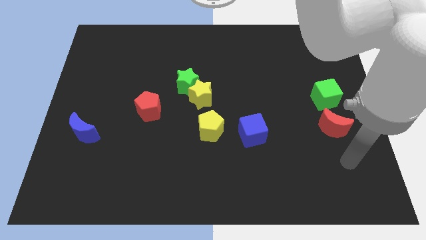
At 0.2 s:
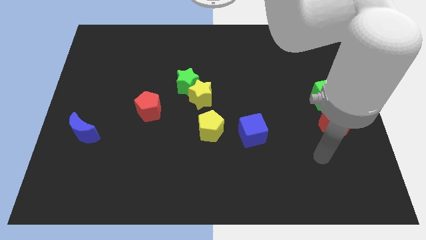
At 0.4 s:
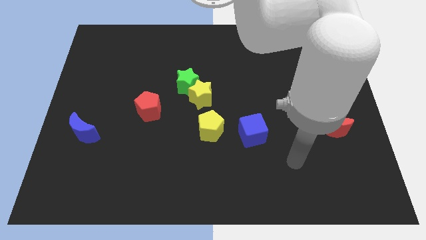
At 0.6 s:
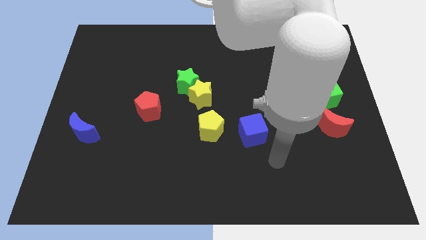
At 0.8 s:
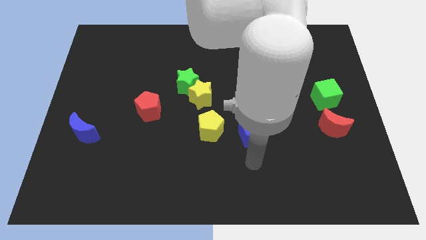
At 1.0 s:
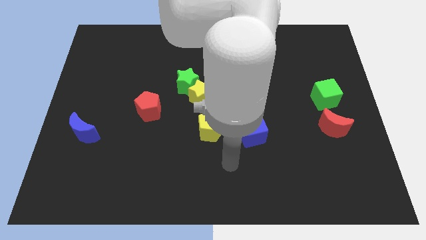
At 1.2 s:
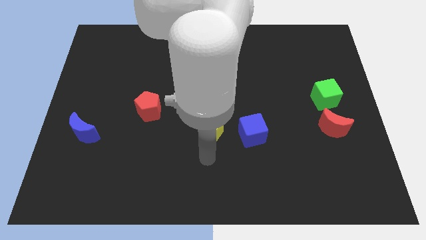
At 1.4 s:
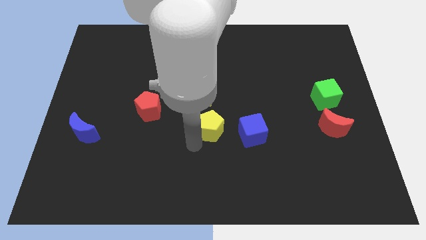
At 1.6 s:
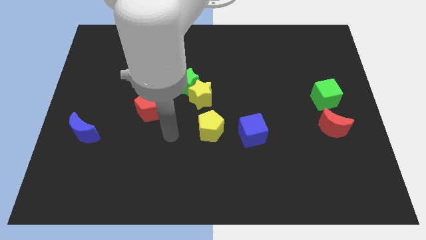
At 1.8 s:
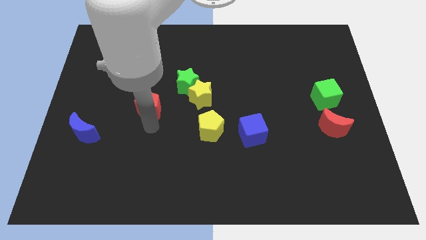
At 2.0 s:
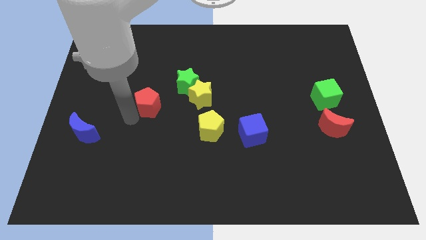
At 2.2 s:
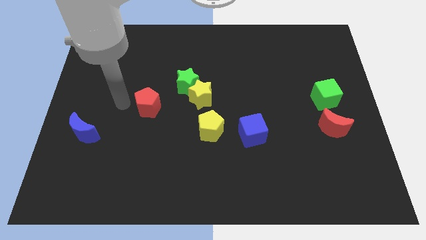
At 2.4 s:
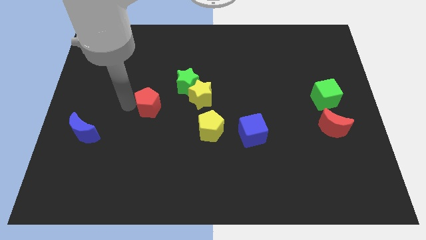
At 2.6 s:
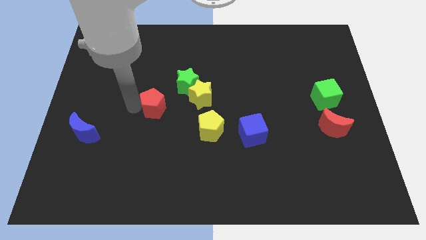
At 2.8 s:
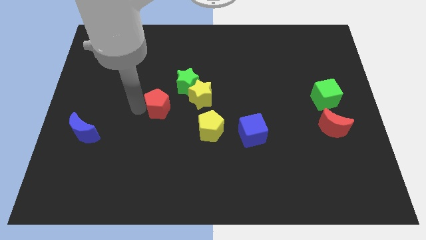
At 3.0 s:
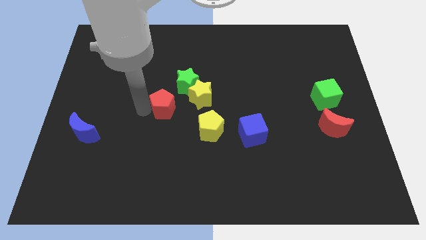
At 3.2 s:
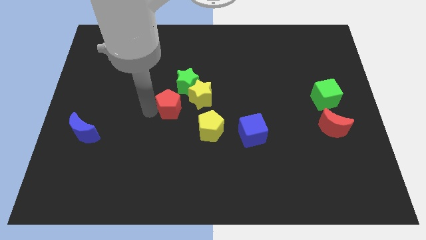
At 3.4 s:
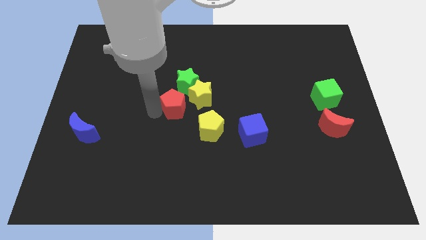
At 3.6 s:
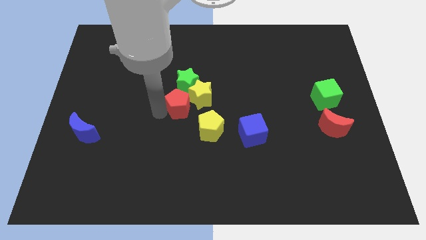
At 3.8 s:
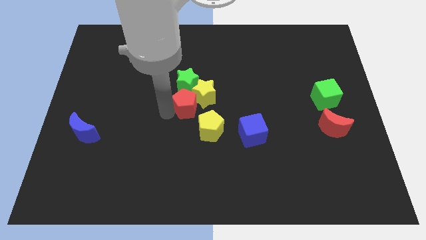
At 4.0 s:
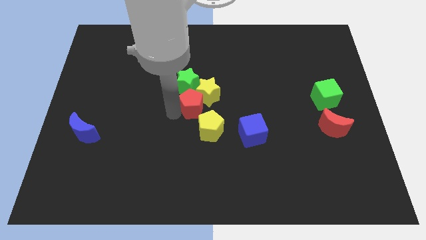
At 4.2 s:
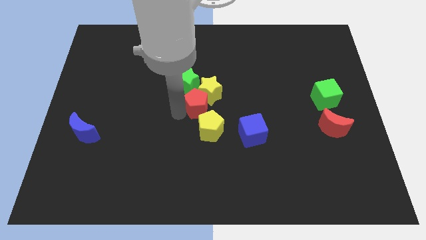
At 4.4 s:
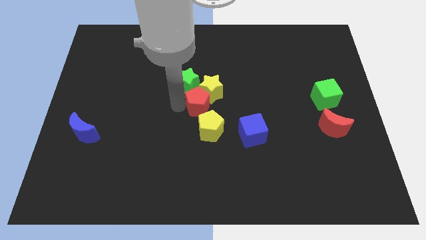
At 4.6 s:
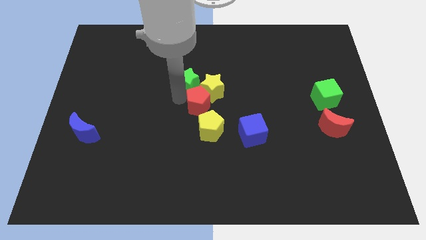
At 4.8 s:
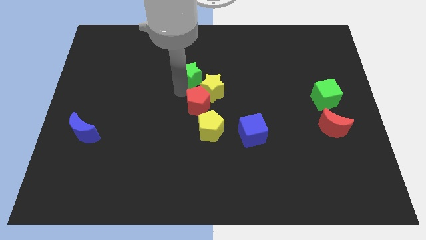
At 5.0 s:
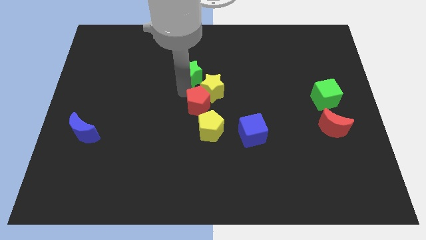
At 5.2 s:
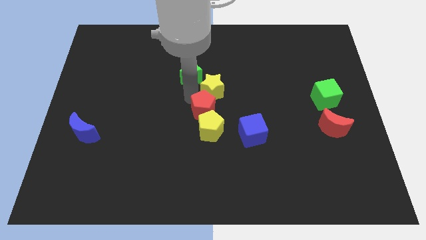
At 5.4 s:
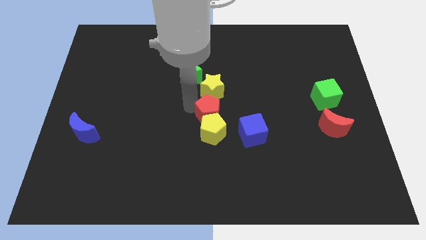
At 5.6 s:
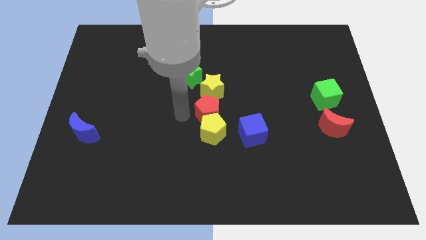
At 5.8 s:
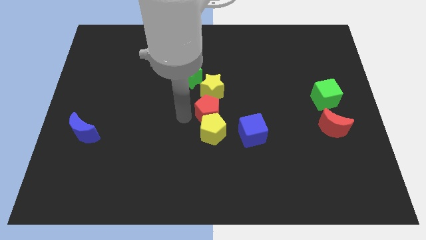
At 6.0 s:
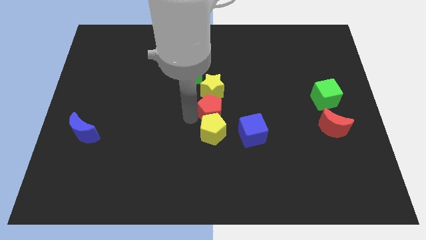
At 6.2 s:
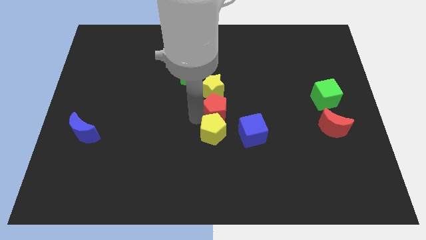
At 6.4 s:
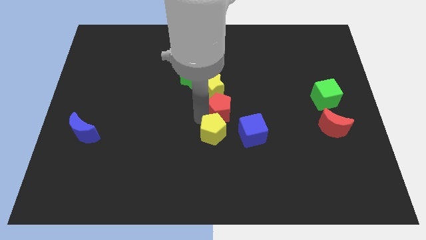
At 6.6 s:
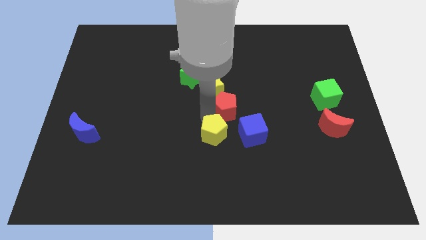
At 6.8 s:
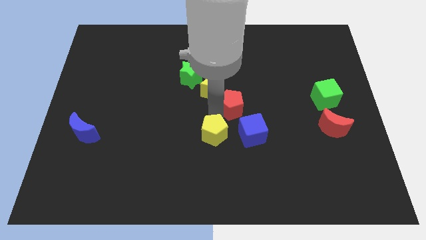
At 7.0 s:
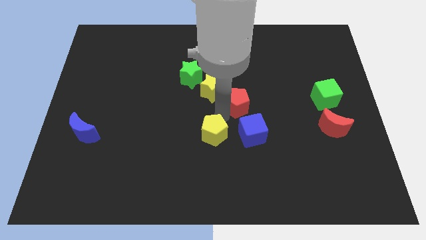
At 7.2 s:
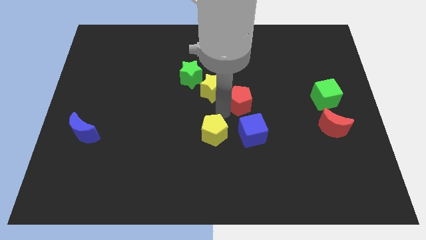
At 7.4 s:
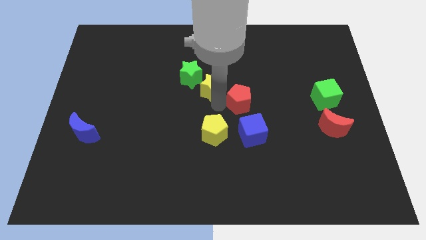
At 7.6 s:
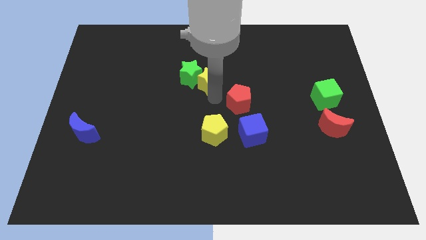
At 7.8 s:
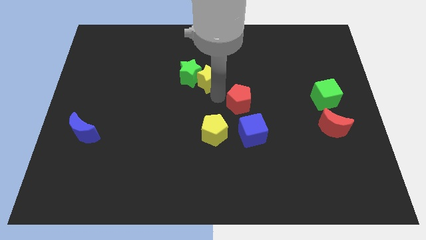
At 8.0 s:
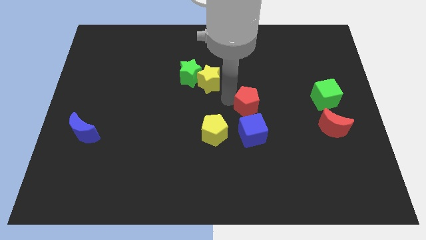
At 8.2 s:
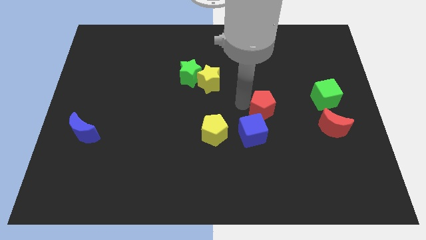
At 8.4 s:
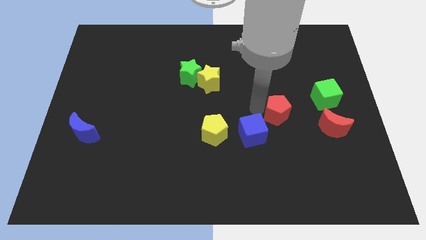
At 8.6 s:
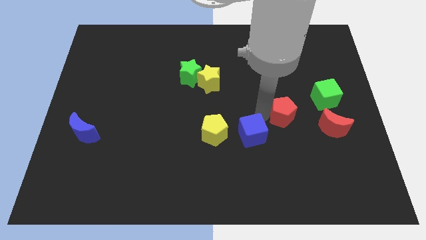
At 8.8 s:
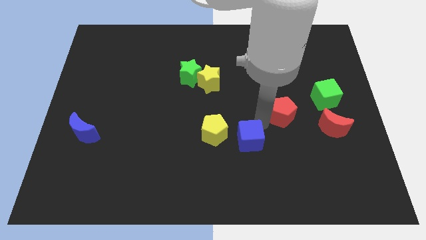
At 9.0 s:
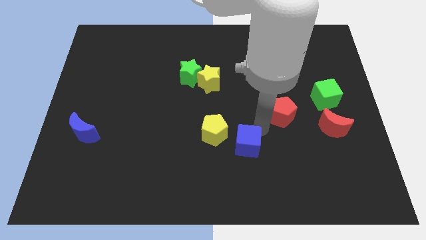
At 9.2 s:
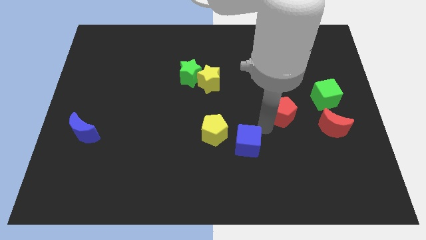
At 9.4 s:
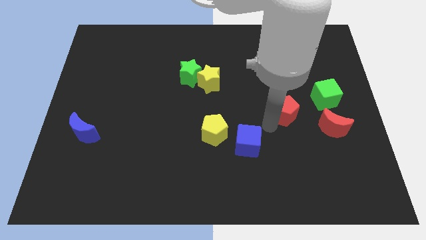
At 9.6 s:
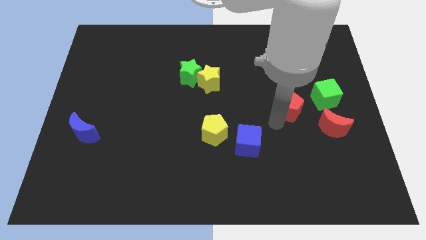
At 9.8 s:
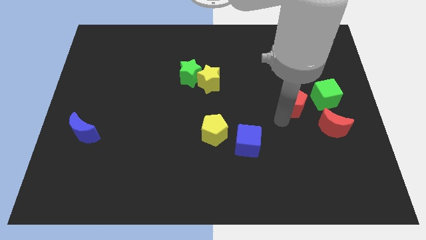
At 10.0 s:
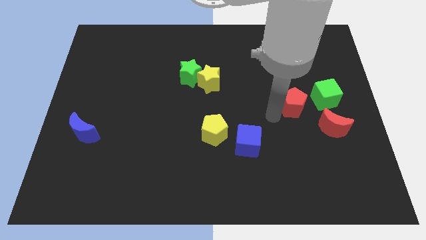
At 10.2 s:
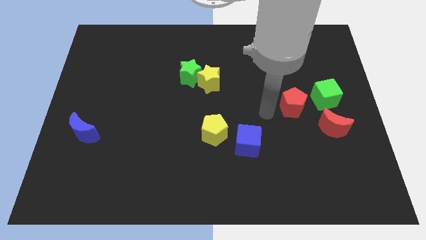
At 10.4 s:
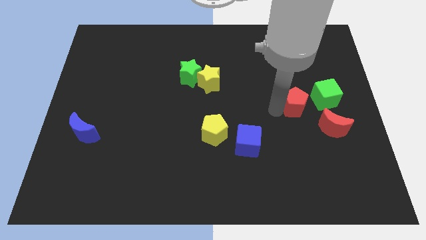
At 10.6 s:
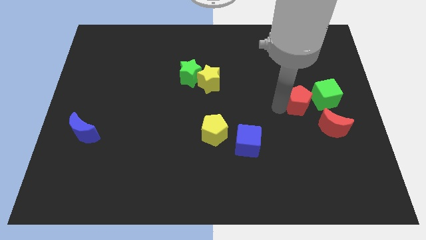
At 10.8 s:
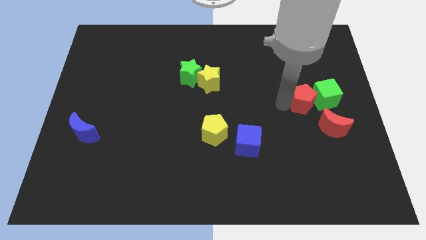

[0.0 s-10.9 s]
move the red pentagon next to the green cube

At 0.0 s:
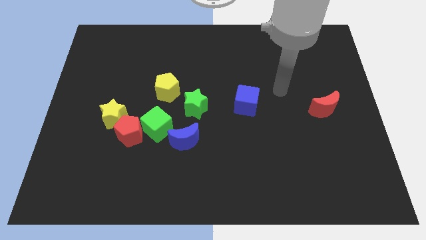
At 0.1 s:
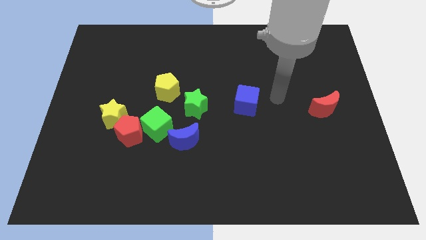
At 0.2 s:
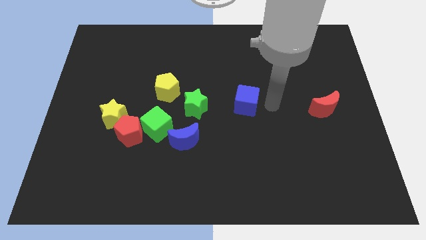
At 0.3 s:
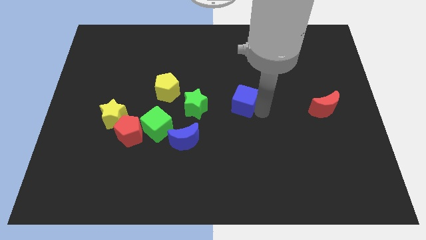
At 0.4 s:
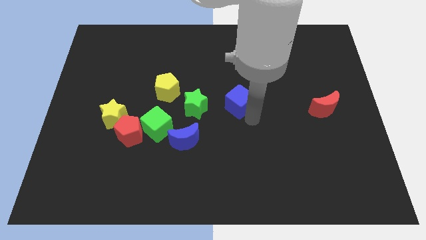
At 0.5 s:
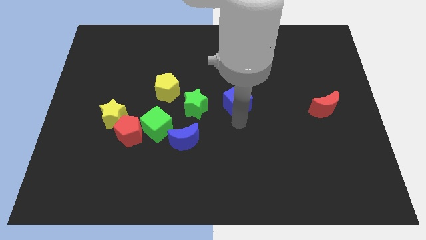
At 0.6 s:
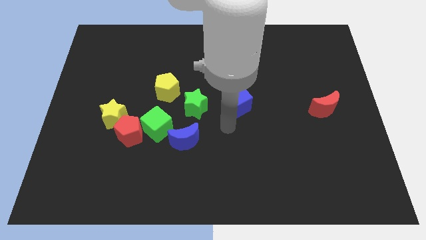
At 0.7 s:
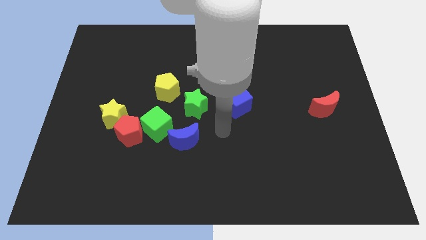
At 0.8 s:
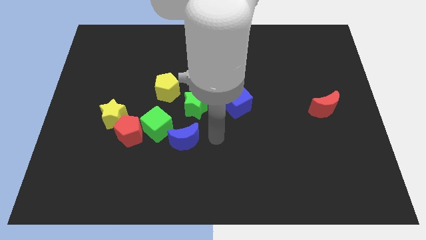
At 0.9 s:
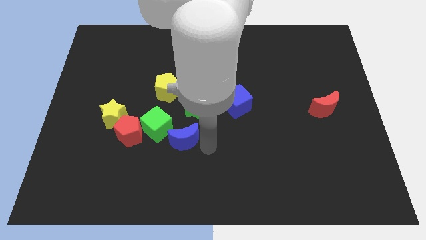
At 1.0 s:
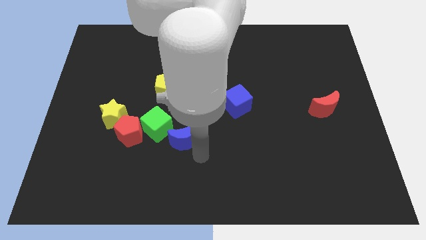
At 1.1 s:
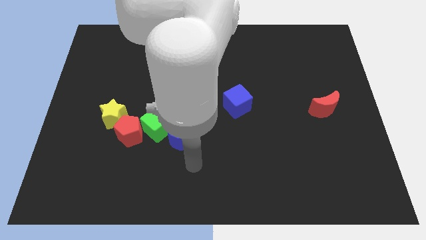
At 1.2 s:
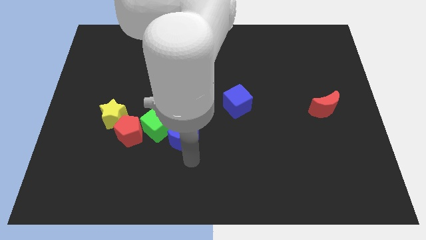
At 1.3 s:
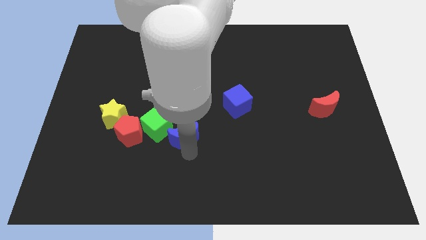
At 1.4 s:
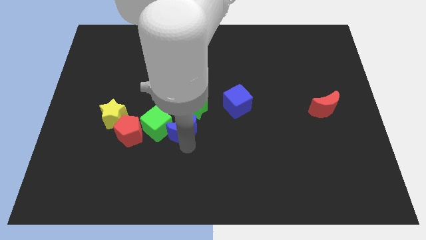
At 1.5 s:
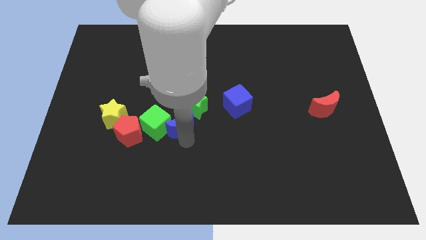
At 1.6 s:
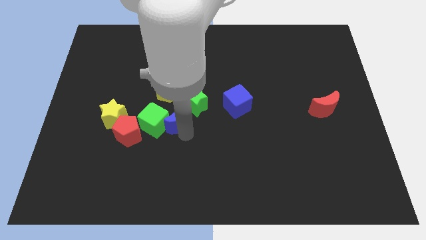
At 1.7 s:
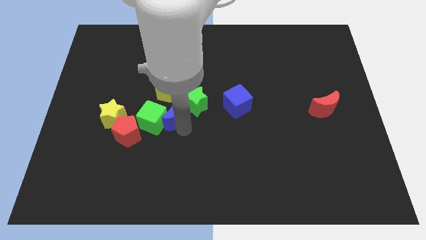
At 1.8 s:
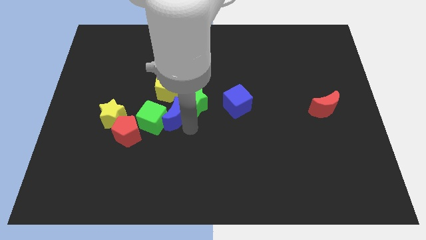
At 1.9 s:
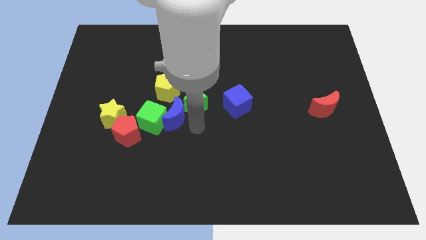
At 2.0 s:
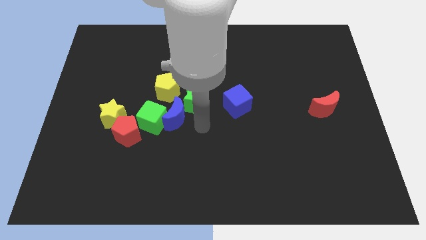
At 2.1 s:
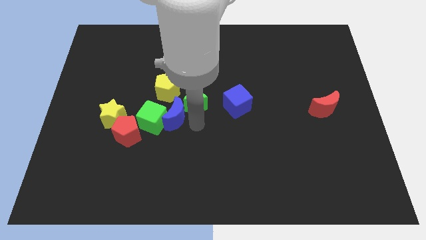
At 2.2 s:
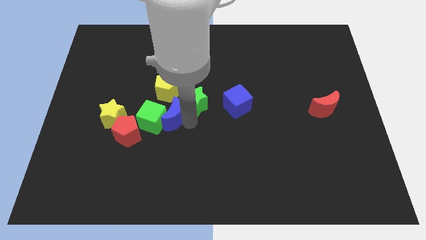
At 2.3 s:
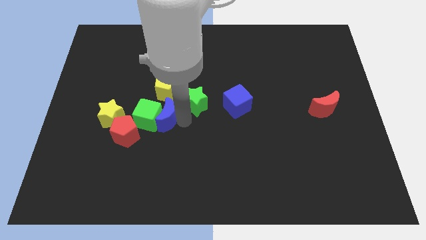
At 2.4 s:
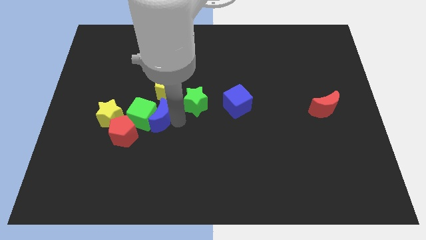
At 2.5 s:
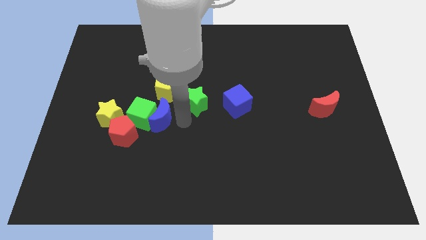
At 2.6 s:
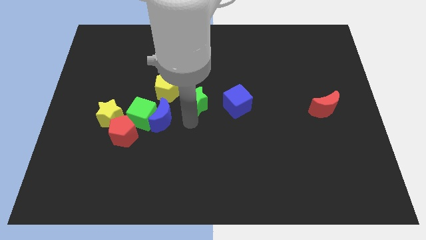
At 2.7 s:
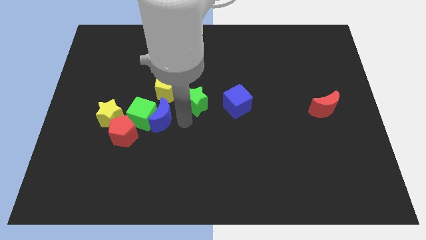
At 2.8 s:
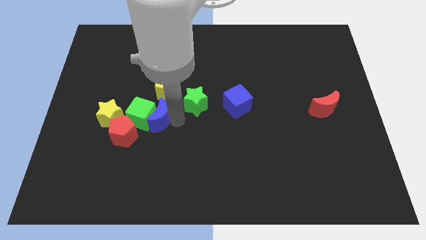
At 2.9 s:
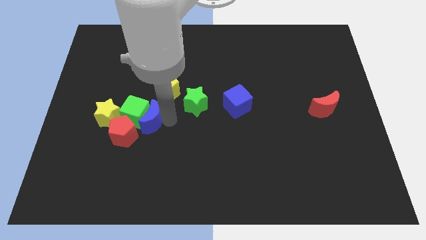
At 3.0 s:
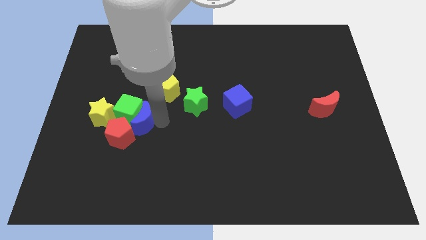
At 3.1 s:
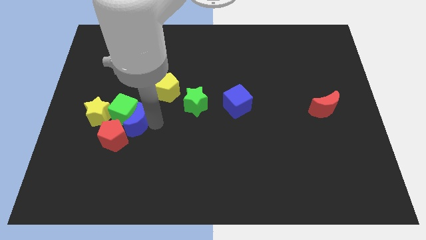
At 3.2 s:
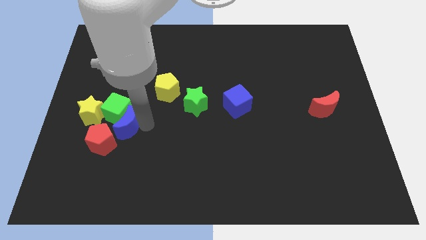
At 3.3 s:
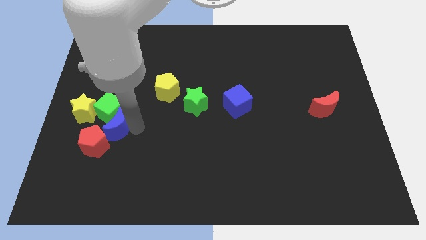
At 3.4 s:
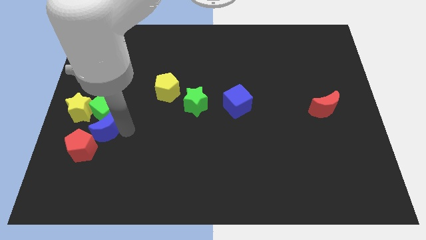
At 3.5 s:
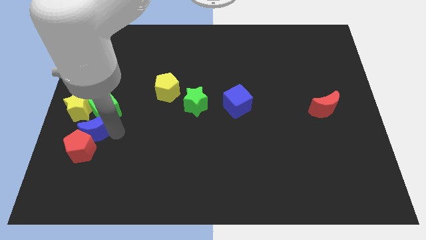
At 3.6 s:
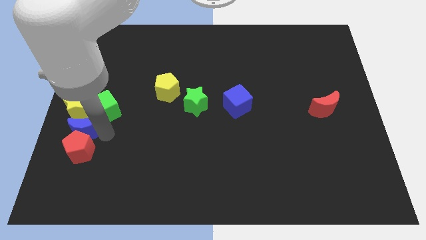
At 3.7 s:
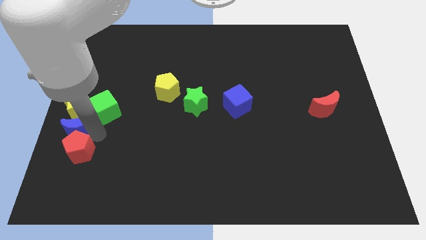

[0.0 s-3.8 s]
push the blue moon close to the yellow star
